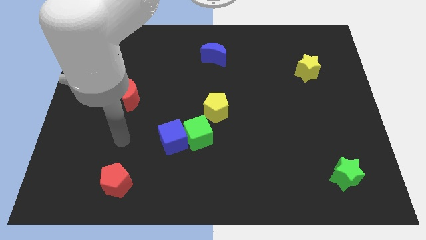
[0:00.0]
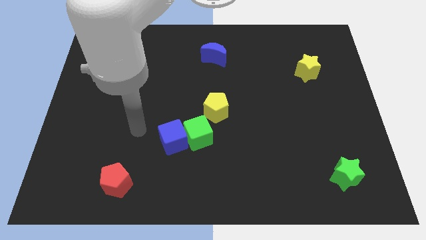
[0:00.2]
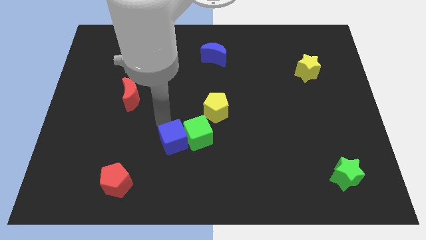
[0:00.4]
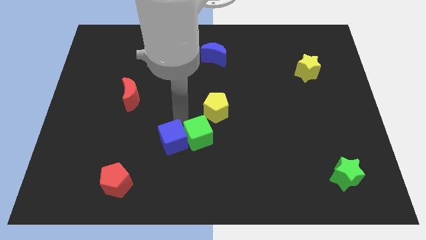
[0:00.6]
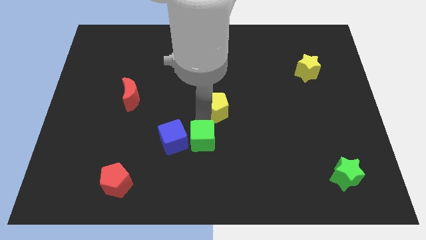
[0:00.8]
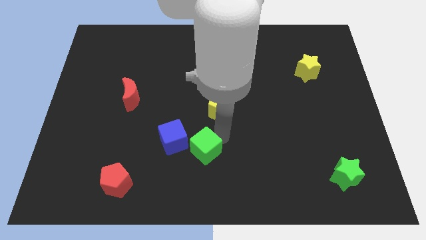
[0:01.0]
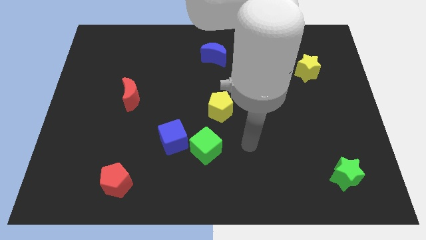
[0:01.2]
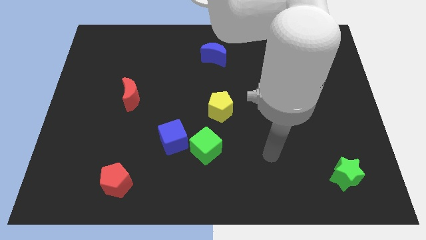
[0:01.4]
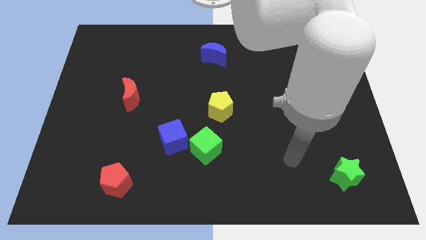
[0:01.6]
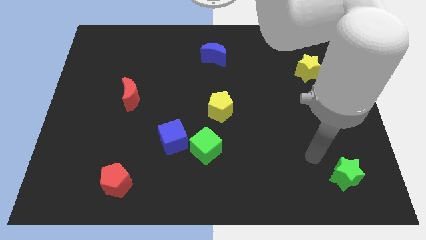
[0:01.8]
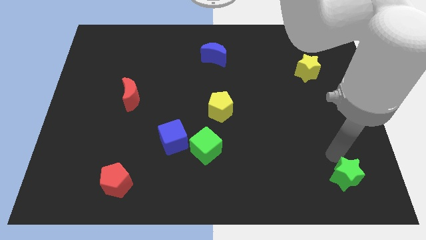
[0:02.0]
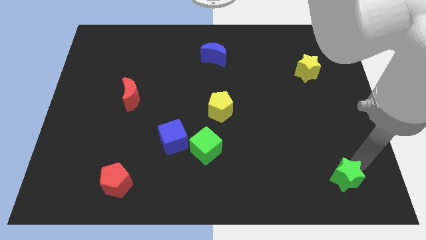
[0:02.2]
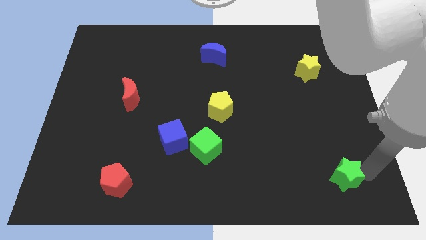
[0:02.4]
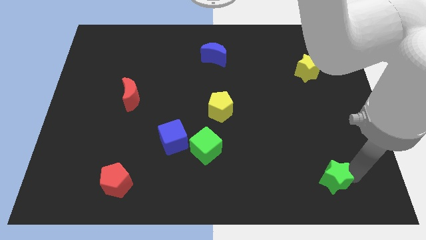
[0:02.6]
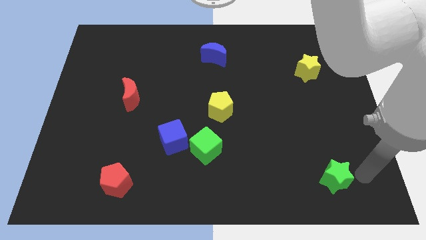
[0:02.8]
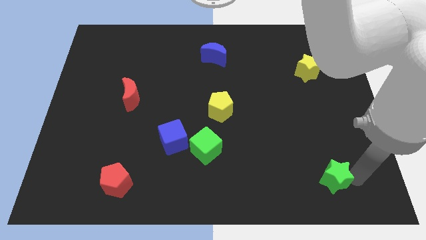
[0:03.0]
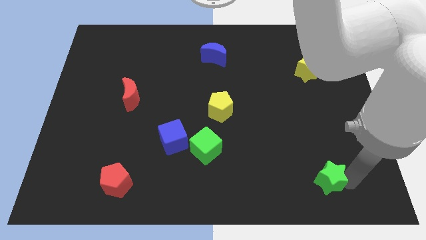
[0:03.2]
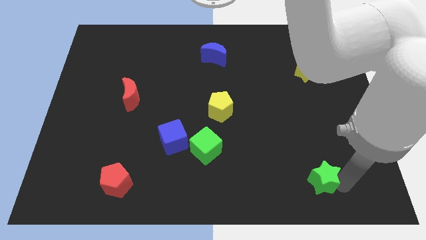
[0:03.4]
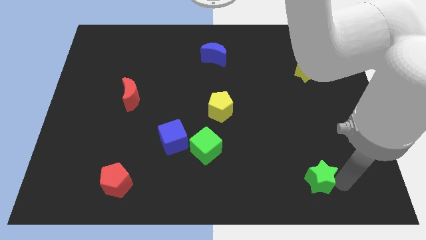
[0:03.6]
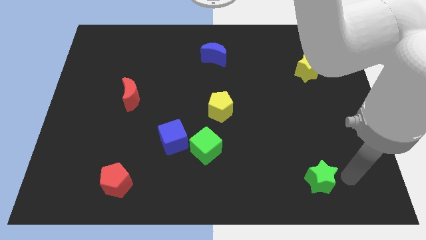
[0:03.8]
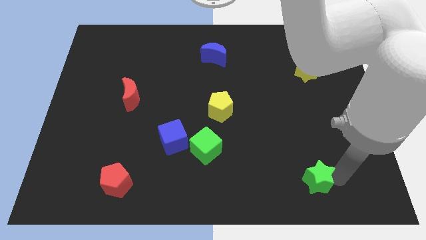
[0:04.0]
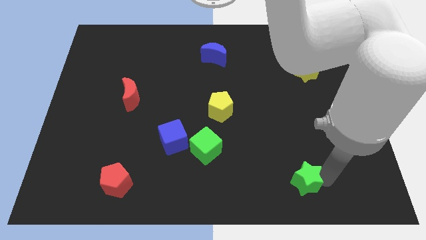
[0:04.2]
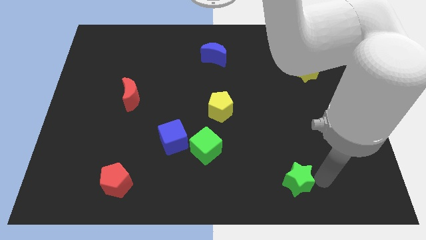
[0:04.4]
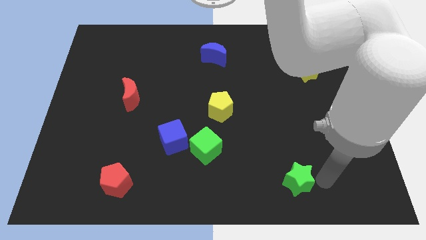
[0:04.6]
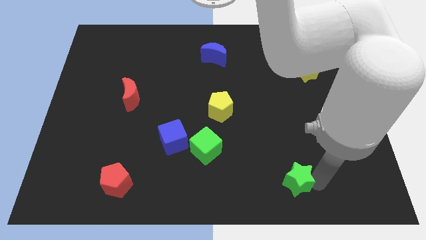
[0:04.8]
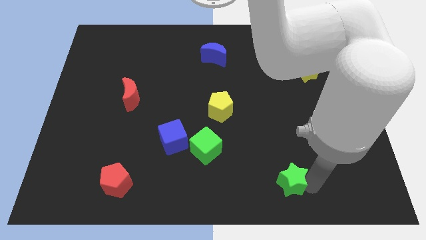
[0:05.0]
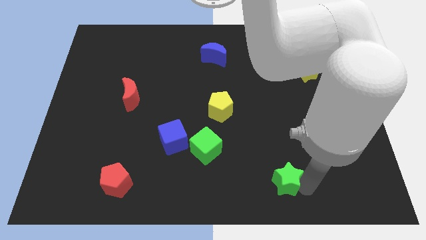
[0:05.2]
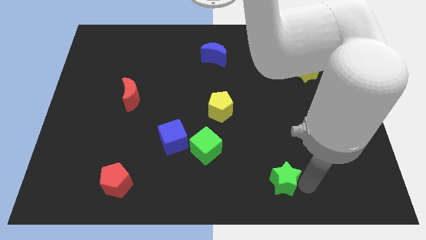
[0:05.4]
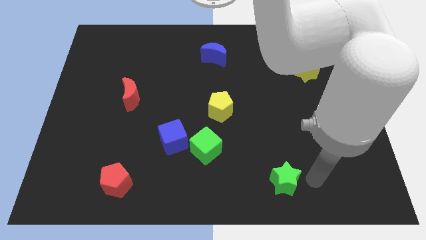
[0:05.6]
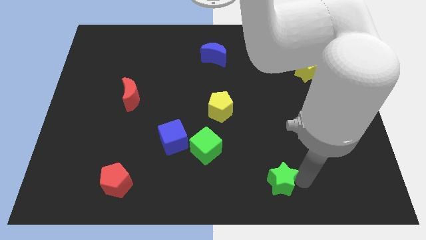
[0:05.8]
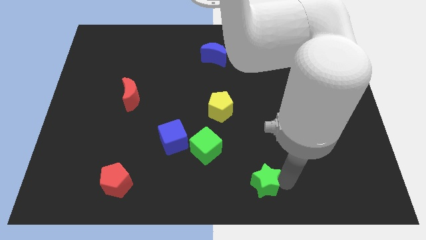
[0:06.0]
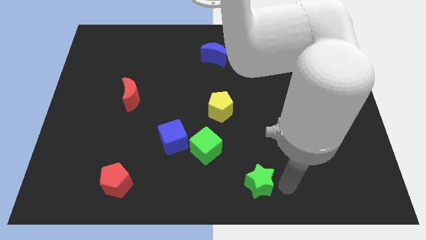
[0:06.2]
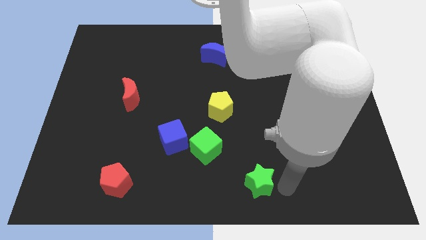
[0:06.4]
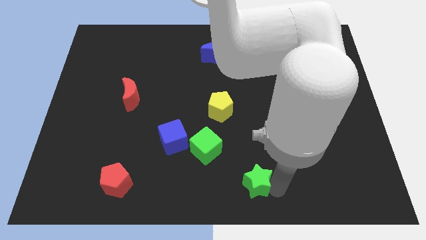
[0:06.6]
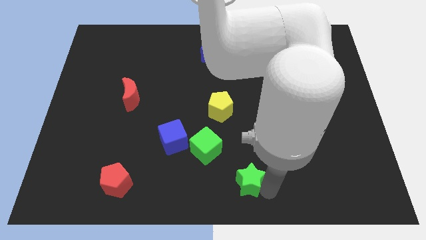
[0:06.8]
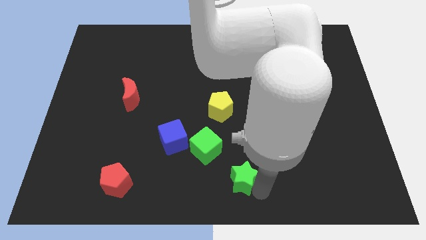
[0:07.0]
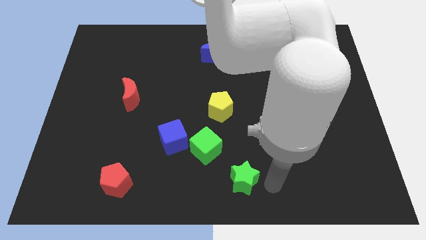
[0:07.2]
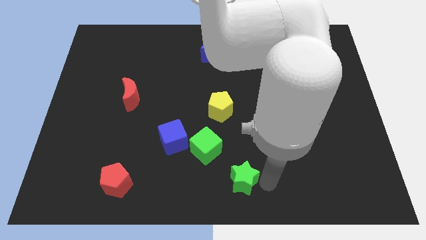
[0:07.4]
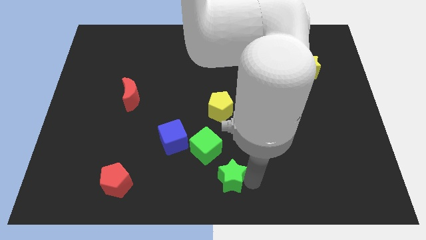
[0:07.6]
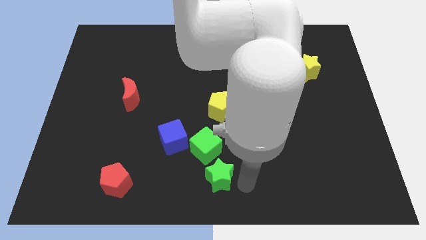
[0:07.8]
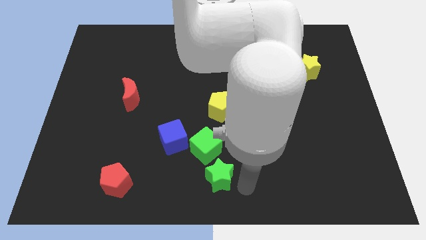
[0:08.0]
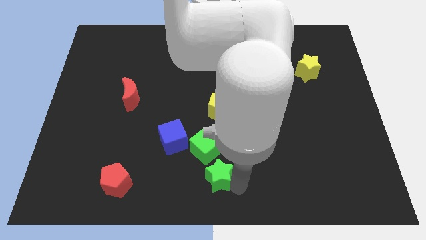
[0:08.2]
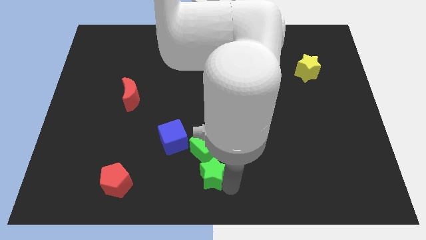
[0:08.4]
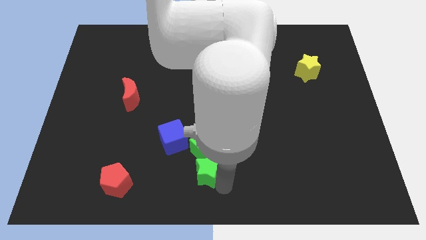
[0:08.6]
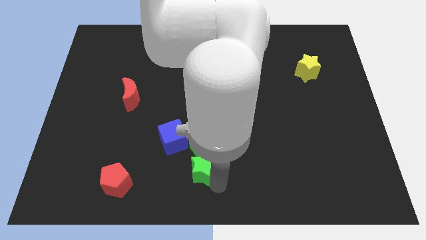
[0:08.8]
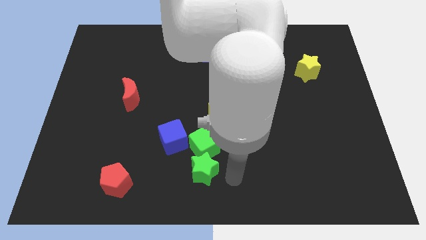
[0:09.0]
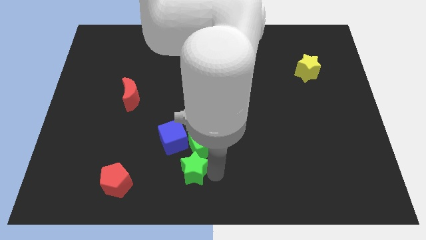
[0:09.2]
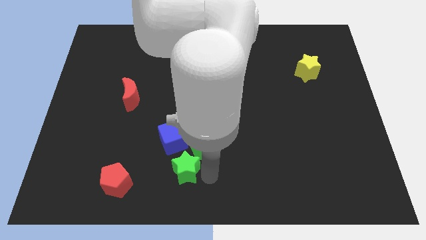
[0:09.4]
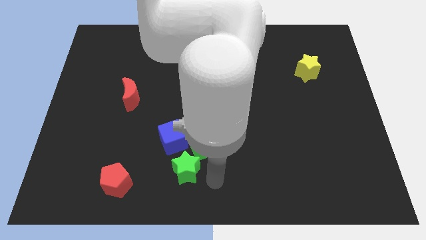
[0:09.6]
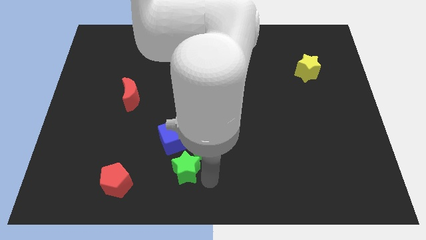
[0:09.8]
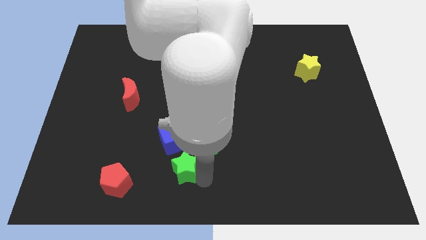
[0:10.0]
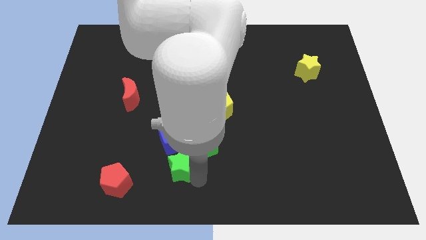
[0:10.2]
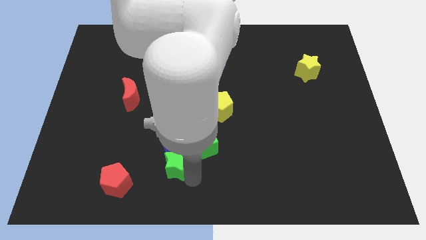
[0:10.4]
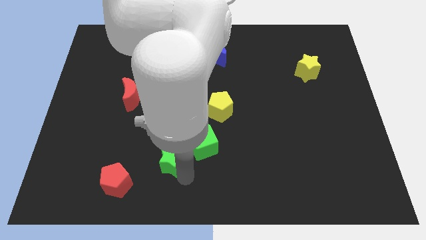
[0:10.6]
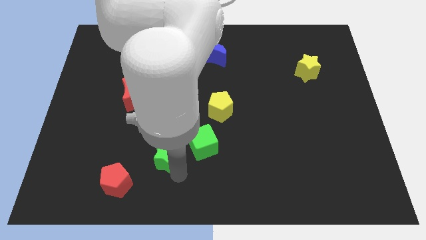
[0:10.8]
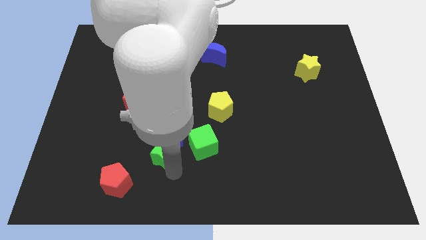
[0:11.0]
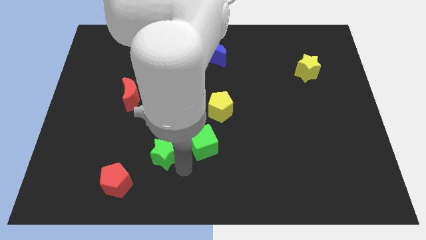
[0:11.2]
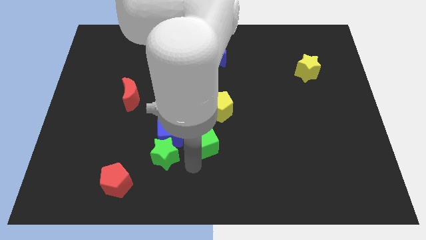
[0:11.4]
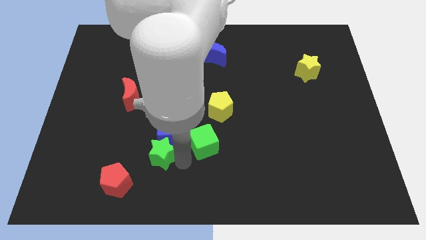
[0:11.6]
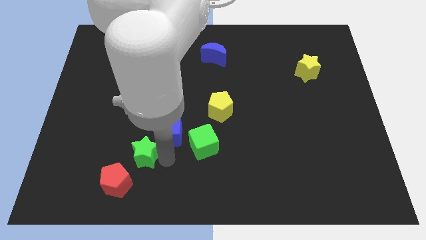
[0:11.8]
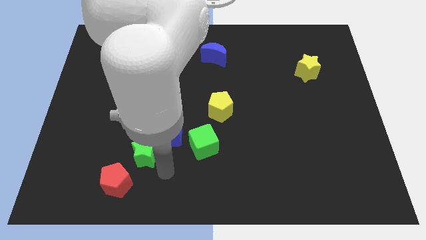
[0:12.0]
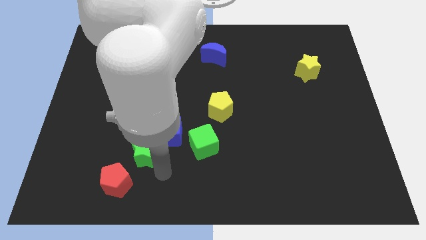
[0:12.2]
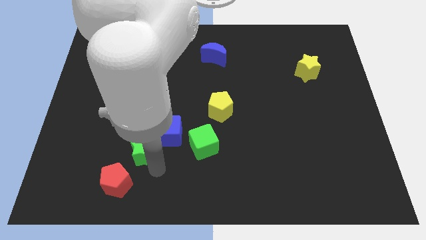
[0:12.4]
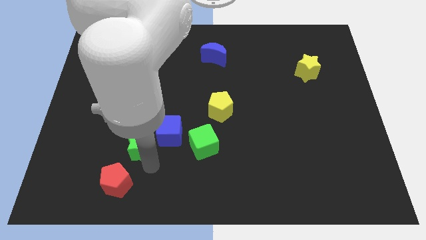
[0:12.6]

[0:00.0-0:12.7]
move the green star to the bottom side of the red moon

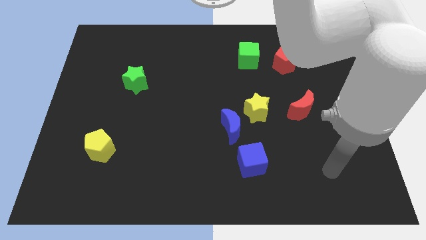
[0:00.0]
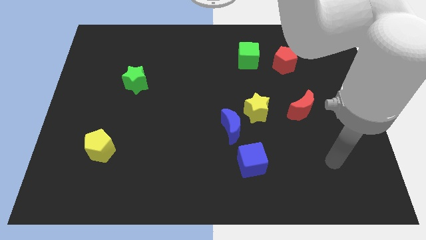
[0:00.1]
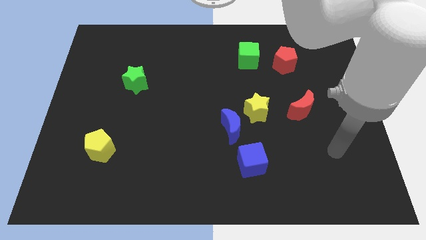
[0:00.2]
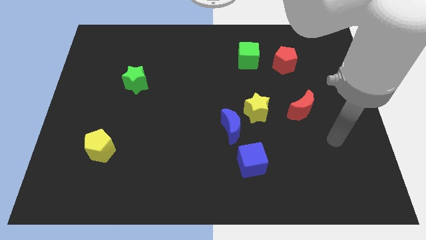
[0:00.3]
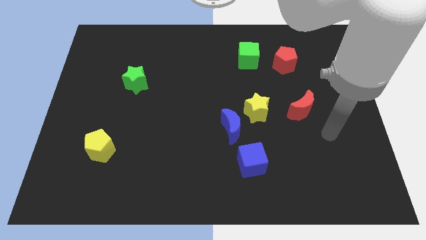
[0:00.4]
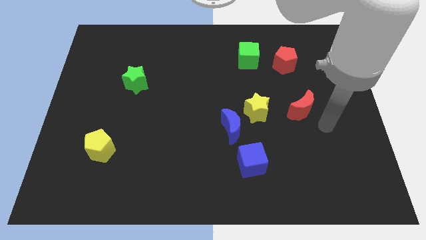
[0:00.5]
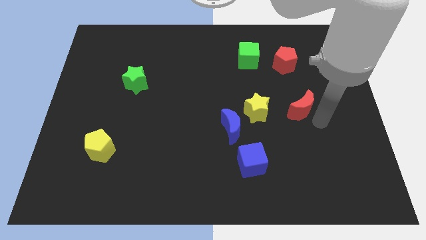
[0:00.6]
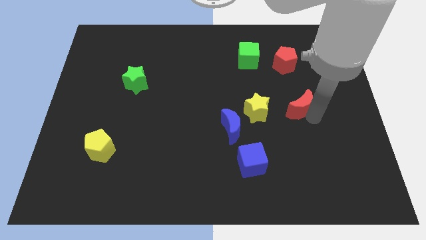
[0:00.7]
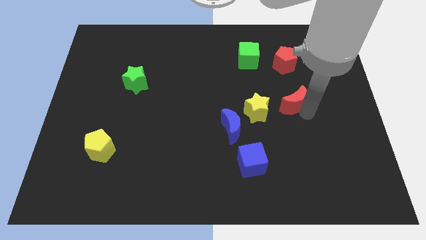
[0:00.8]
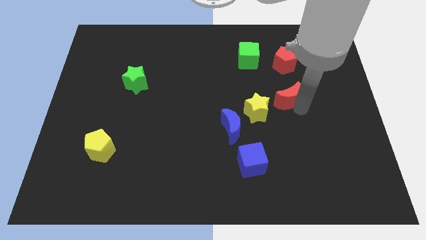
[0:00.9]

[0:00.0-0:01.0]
put the red moon to the top right side of the yellow star

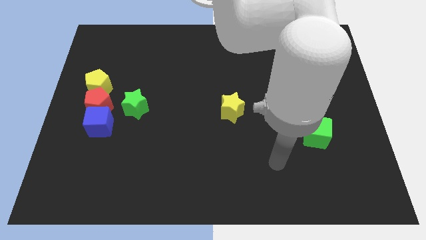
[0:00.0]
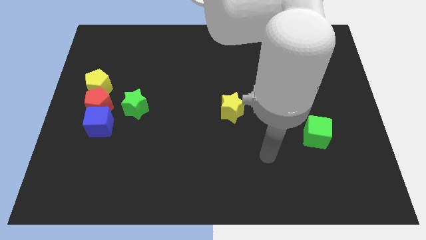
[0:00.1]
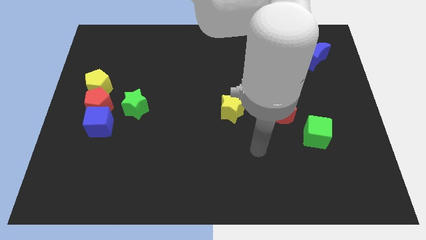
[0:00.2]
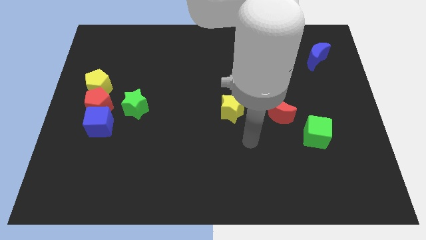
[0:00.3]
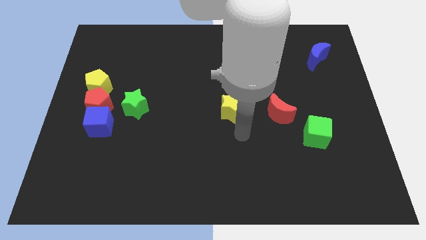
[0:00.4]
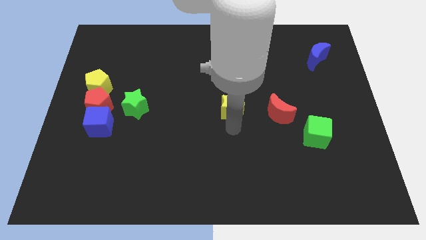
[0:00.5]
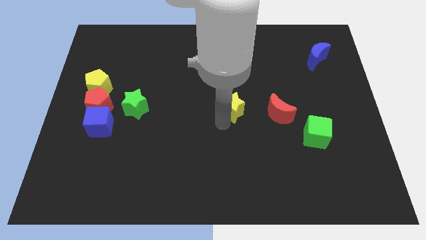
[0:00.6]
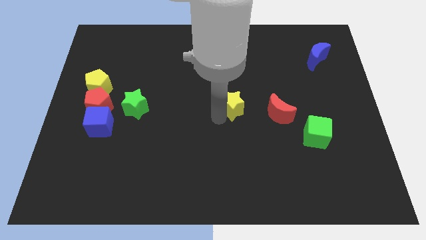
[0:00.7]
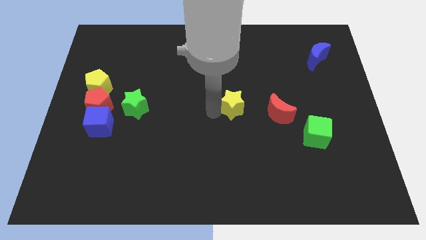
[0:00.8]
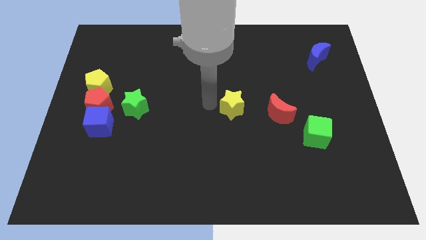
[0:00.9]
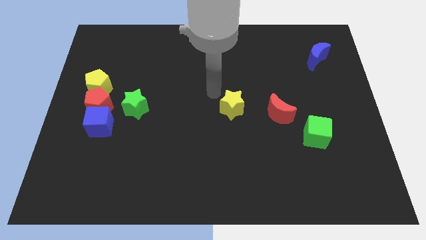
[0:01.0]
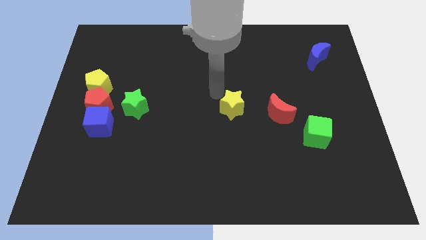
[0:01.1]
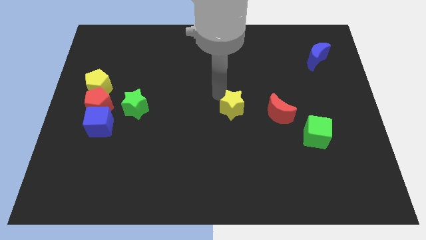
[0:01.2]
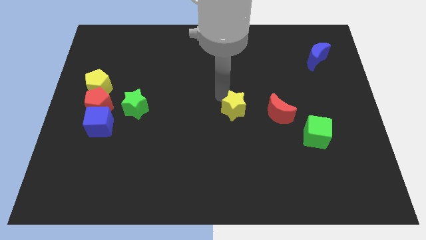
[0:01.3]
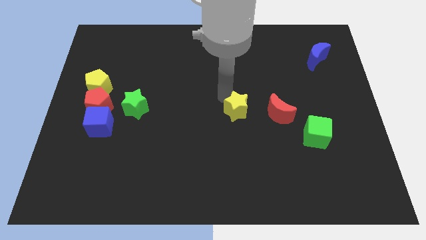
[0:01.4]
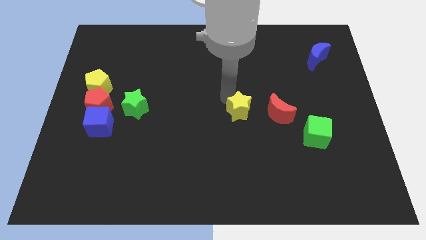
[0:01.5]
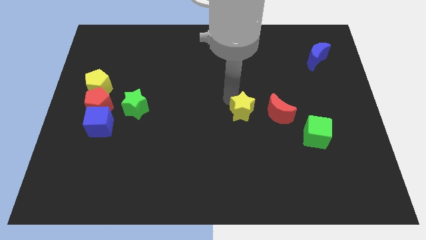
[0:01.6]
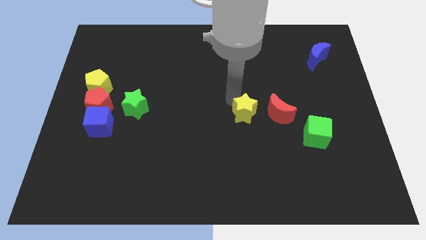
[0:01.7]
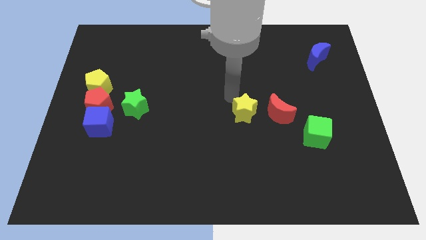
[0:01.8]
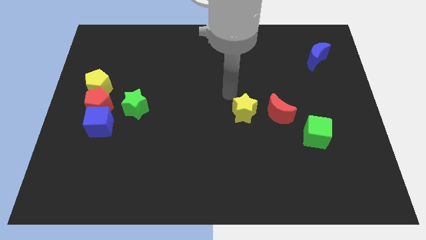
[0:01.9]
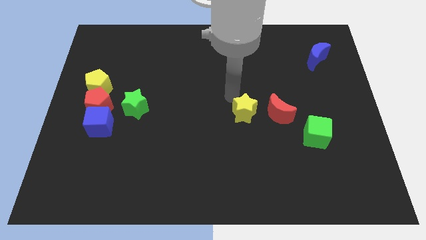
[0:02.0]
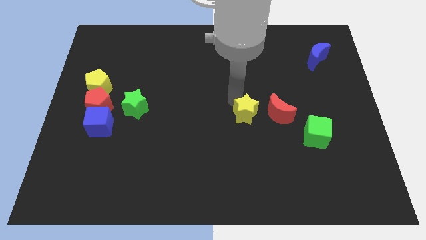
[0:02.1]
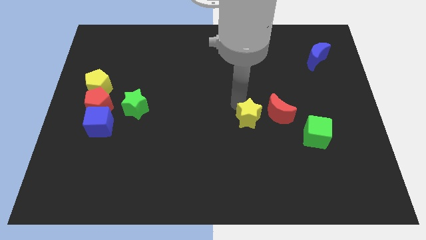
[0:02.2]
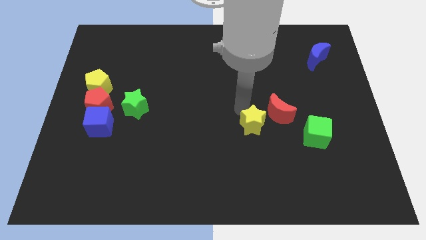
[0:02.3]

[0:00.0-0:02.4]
slide the yellow star to the left of the green cube
